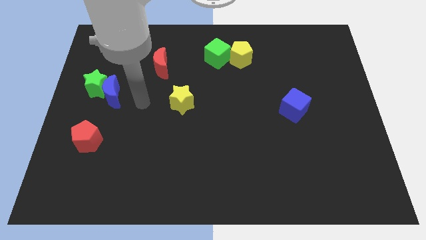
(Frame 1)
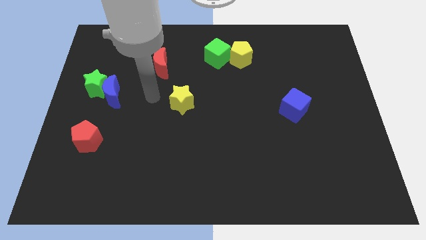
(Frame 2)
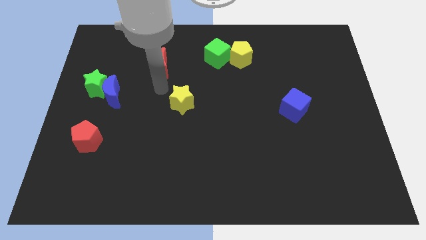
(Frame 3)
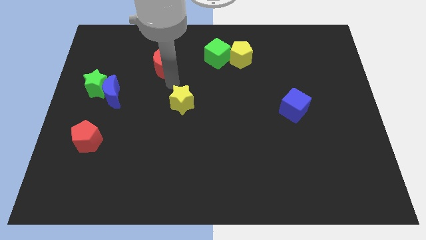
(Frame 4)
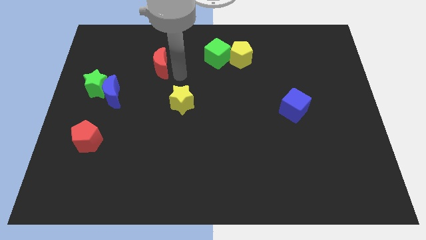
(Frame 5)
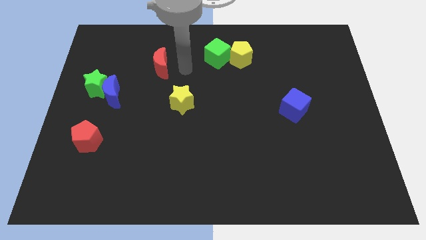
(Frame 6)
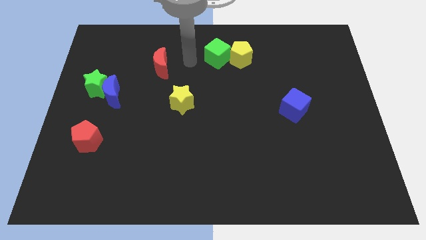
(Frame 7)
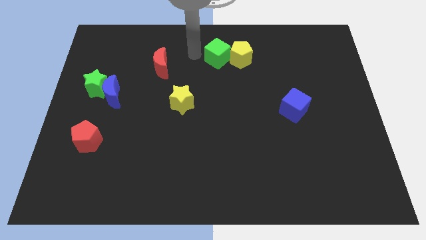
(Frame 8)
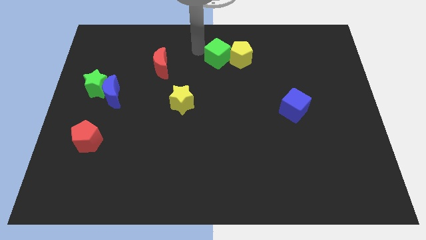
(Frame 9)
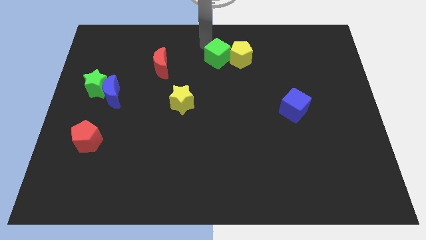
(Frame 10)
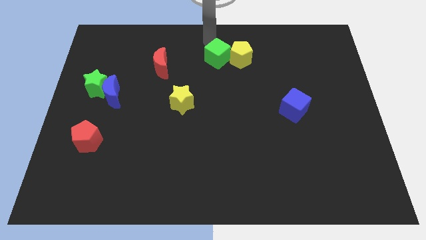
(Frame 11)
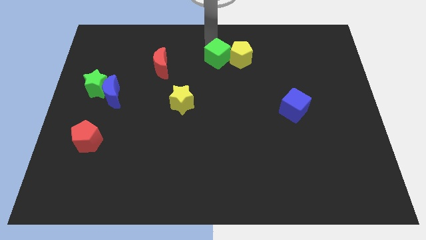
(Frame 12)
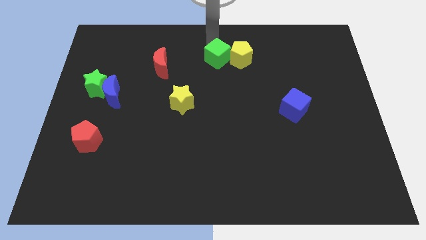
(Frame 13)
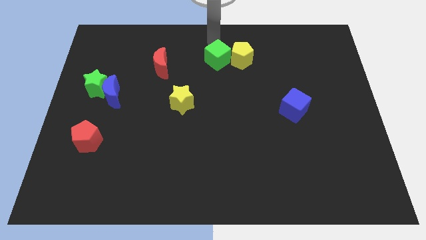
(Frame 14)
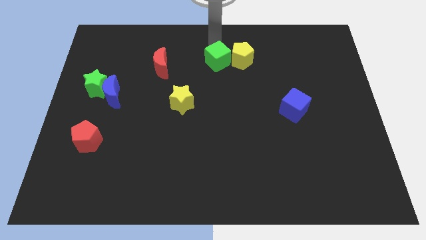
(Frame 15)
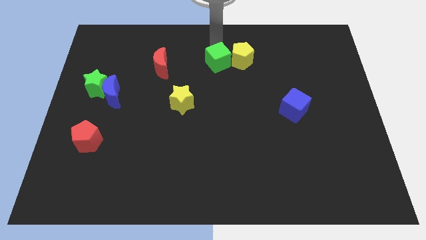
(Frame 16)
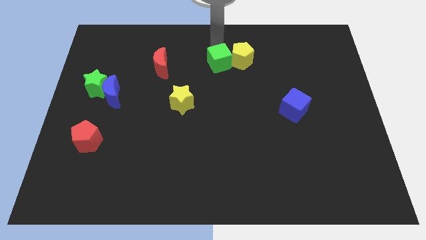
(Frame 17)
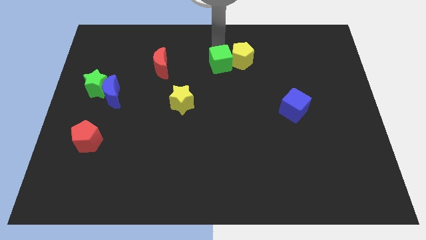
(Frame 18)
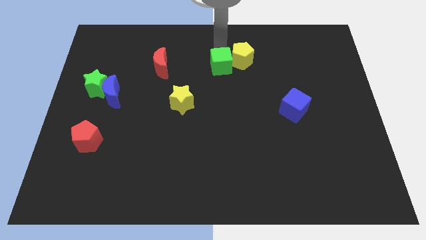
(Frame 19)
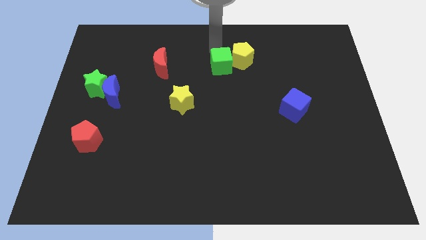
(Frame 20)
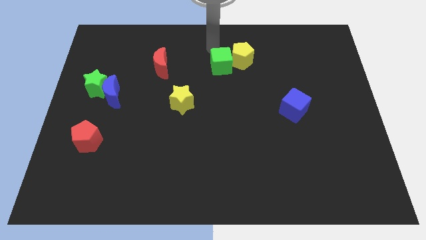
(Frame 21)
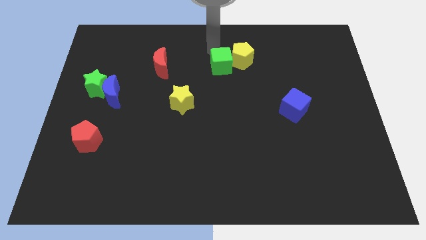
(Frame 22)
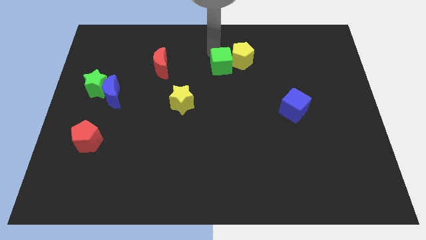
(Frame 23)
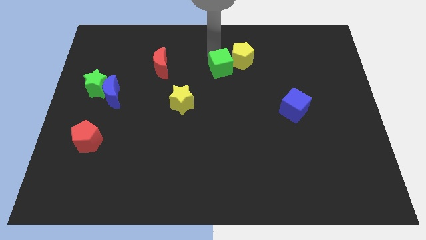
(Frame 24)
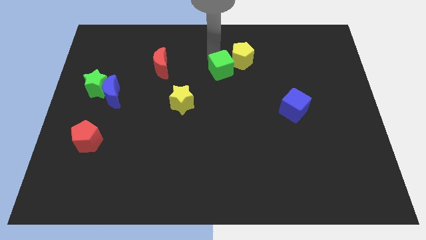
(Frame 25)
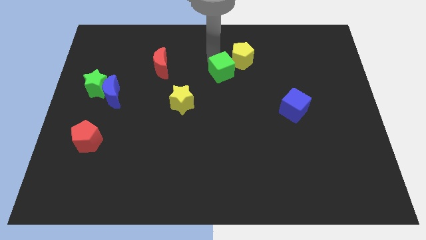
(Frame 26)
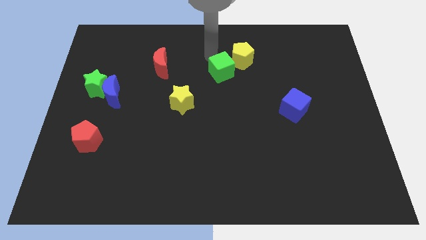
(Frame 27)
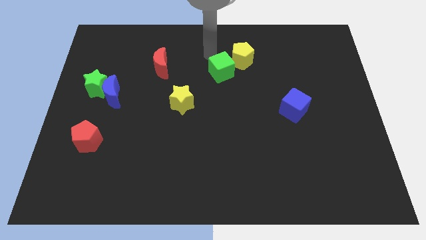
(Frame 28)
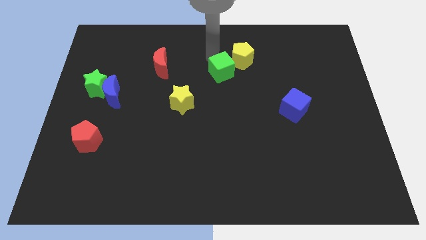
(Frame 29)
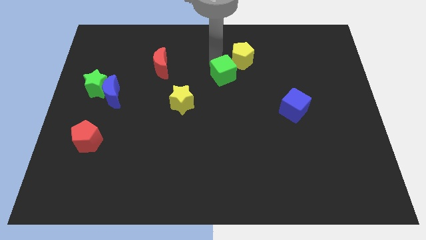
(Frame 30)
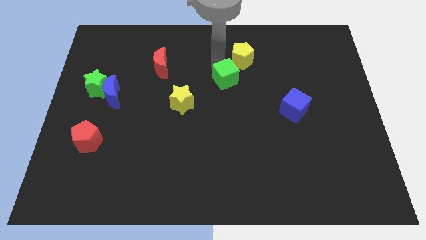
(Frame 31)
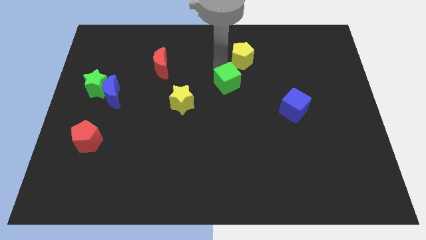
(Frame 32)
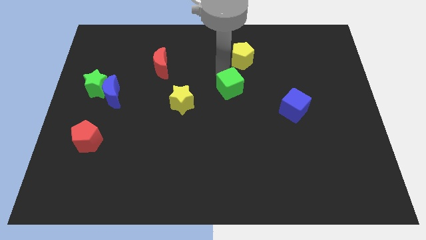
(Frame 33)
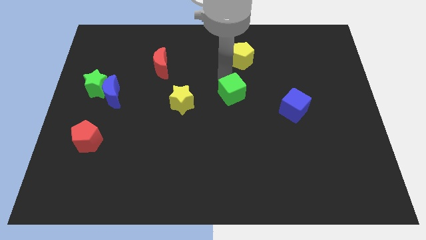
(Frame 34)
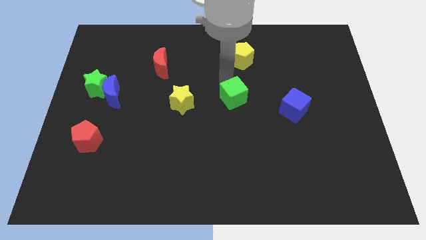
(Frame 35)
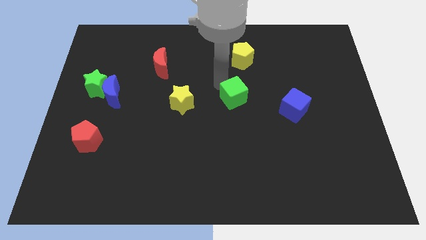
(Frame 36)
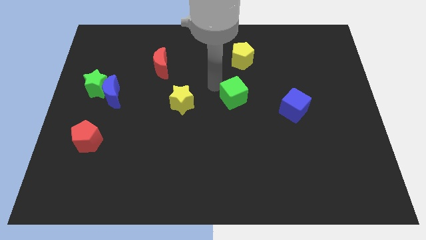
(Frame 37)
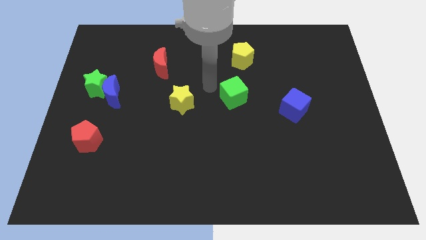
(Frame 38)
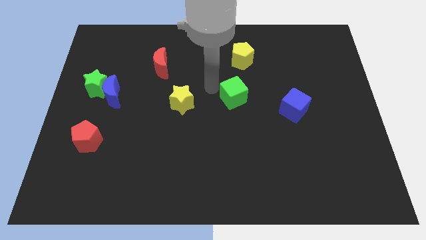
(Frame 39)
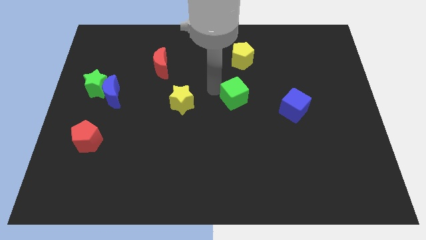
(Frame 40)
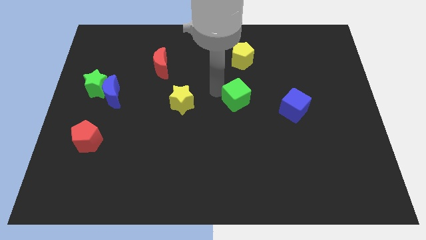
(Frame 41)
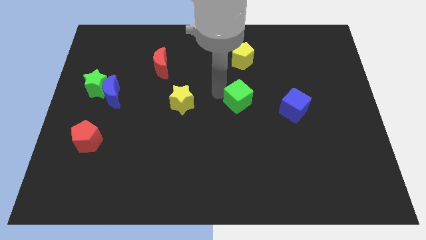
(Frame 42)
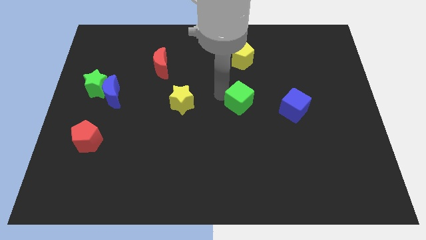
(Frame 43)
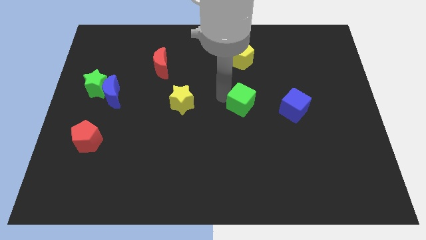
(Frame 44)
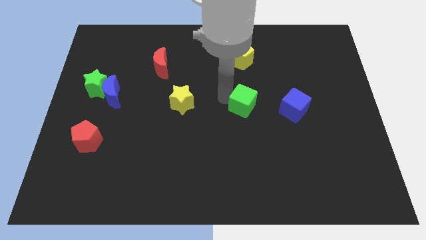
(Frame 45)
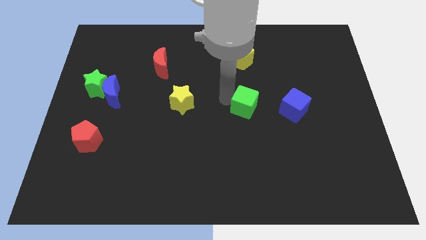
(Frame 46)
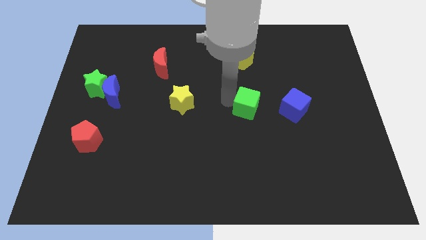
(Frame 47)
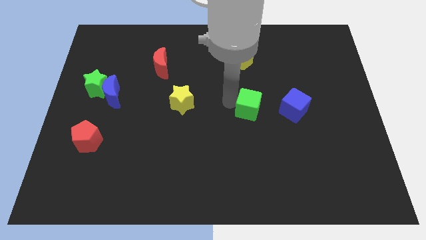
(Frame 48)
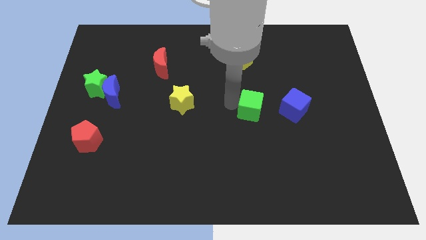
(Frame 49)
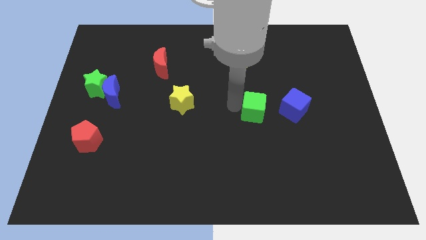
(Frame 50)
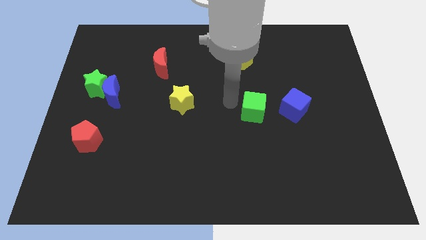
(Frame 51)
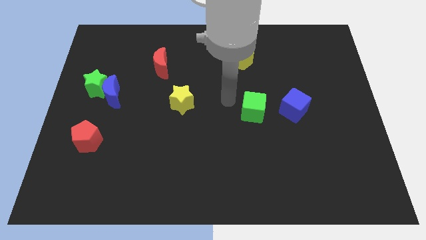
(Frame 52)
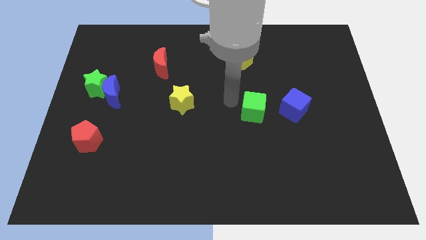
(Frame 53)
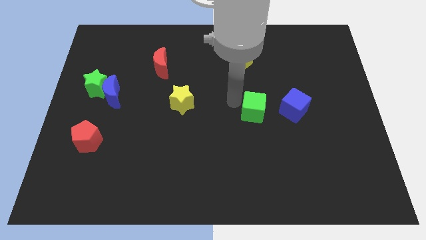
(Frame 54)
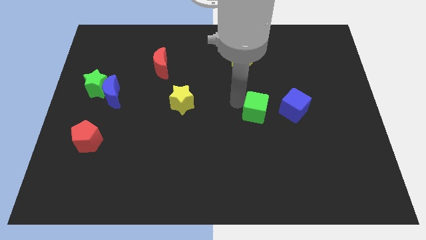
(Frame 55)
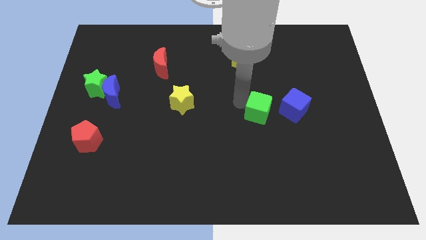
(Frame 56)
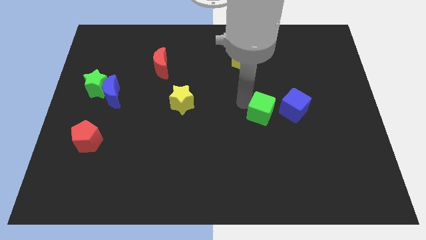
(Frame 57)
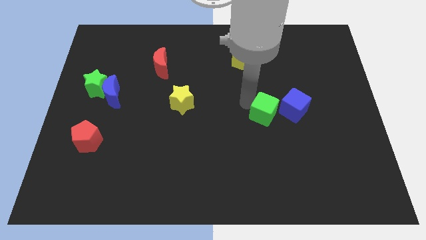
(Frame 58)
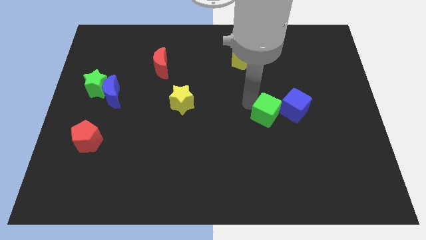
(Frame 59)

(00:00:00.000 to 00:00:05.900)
push the green cube downwards and to the right

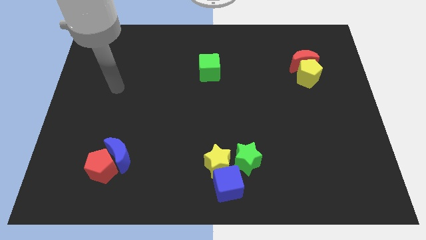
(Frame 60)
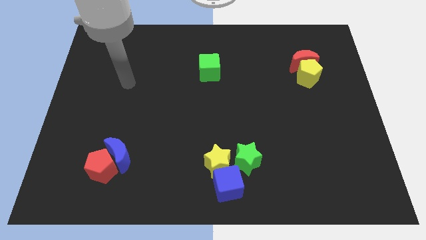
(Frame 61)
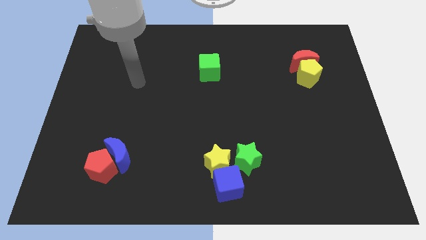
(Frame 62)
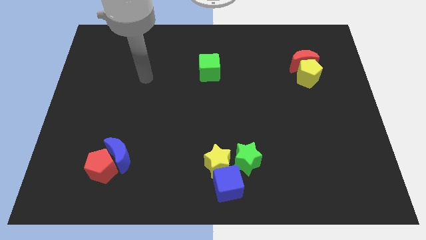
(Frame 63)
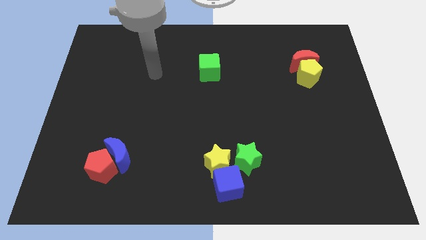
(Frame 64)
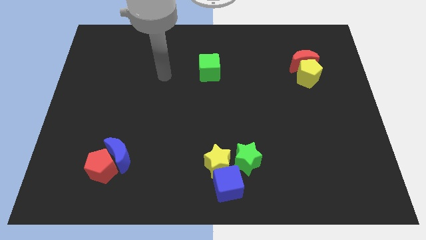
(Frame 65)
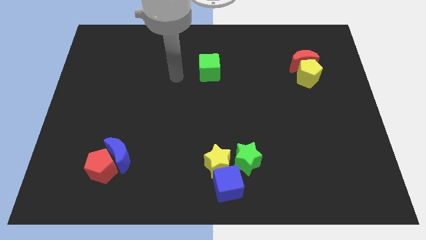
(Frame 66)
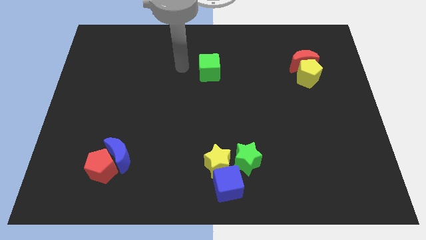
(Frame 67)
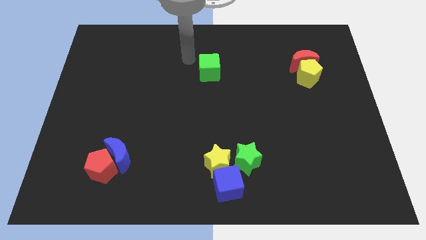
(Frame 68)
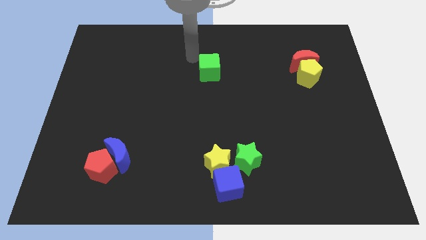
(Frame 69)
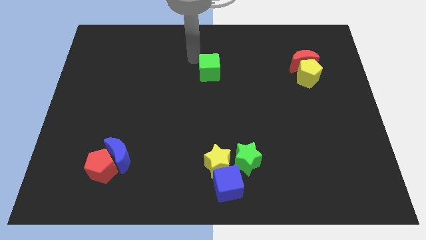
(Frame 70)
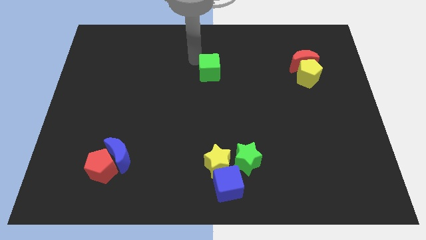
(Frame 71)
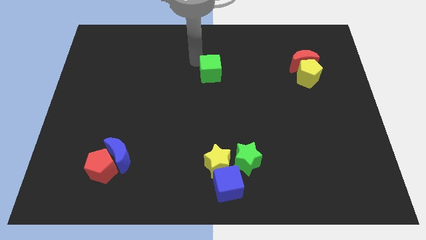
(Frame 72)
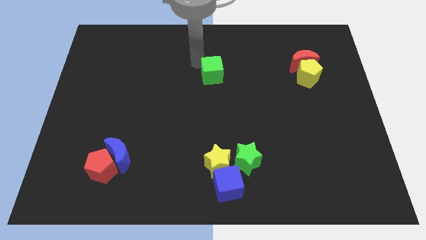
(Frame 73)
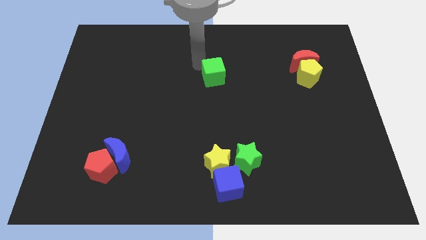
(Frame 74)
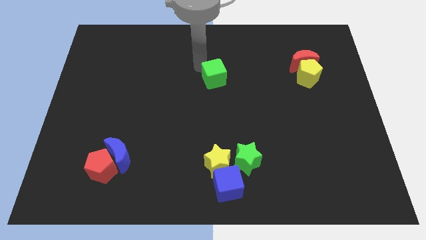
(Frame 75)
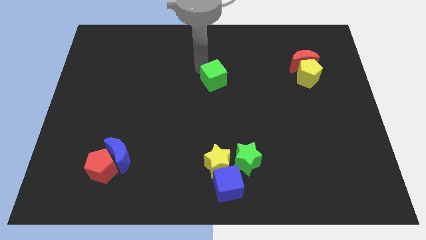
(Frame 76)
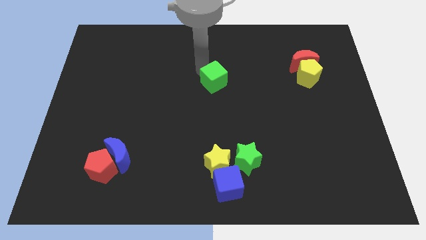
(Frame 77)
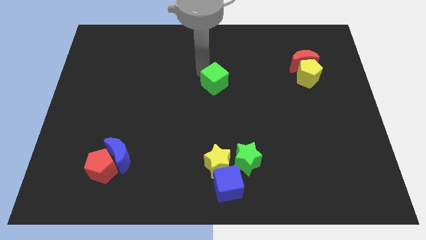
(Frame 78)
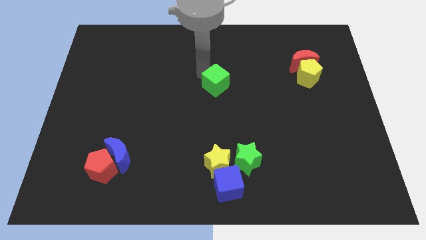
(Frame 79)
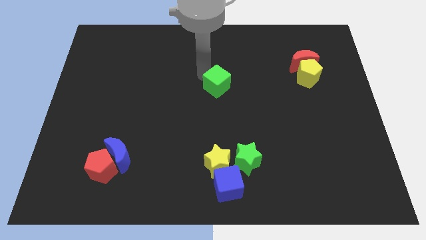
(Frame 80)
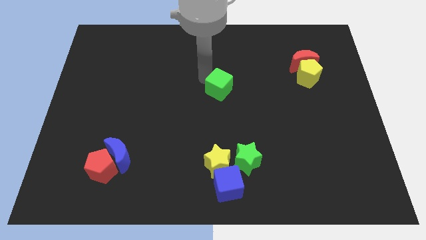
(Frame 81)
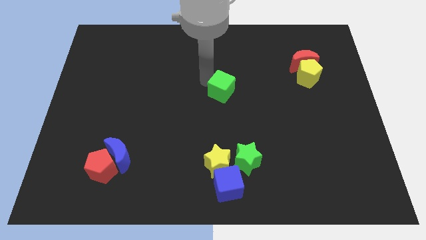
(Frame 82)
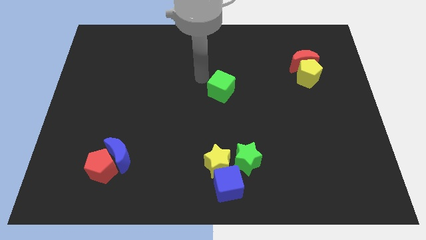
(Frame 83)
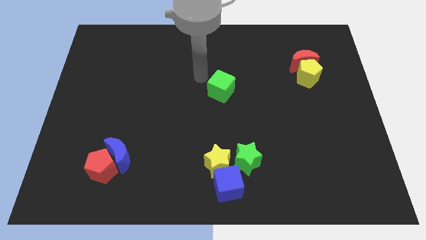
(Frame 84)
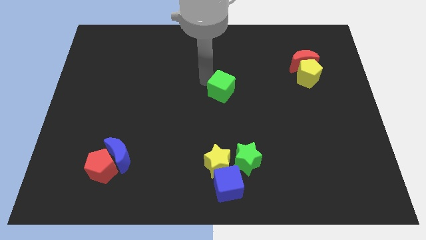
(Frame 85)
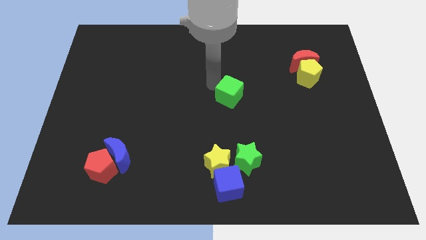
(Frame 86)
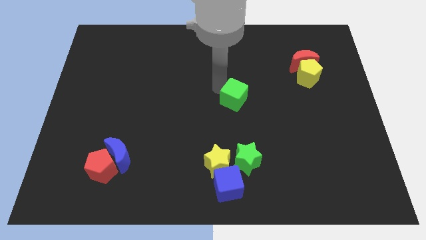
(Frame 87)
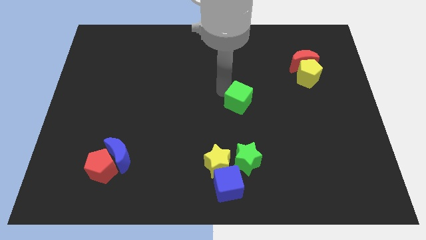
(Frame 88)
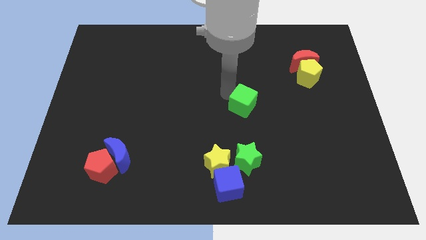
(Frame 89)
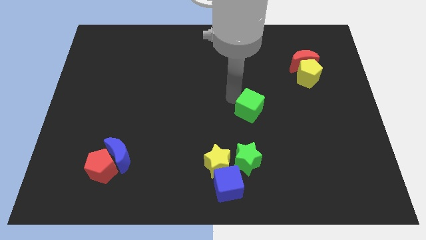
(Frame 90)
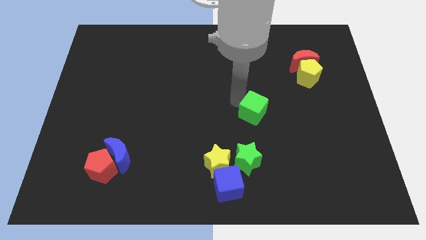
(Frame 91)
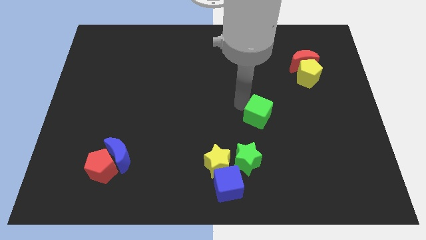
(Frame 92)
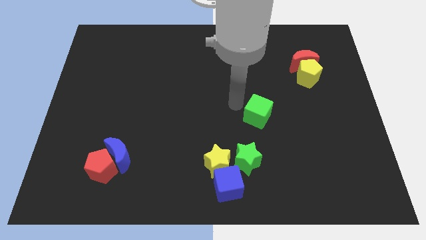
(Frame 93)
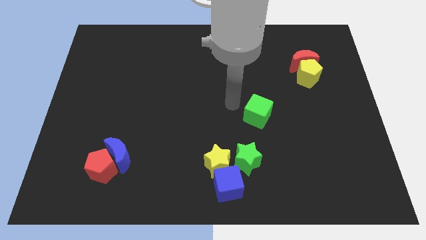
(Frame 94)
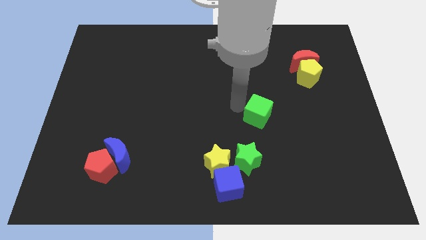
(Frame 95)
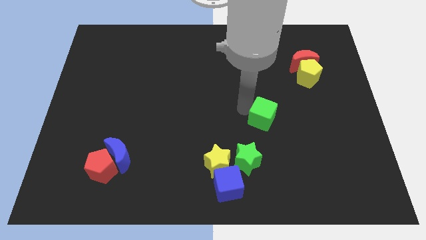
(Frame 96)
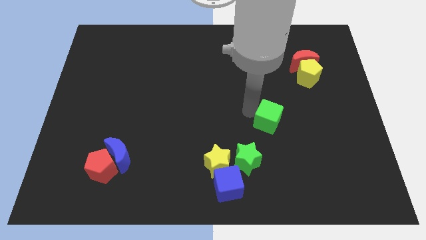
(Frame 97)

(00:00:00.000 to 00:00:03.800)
move the green cube down and then right
